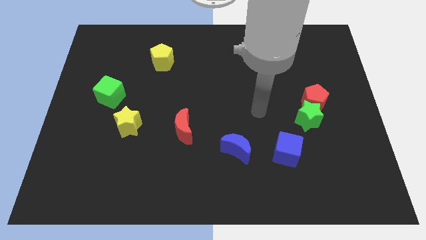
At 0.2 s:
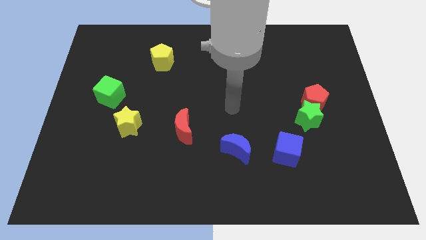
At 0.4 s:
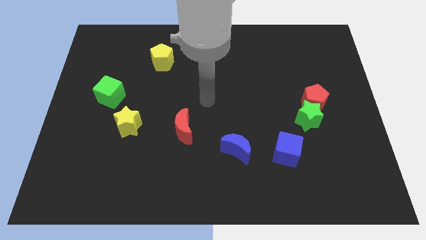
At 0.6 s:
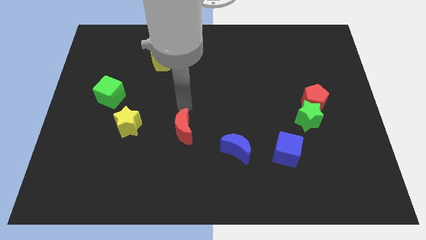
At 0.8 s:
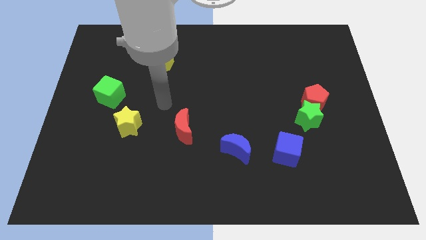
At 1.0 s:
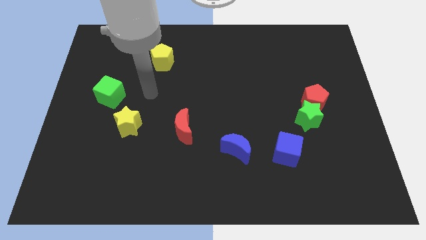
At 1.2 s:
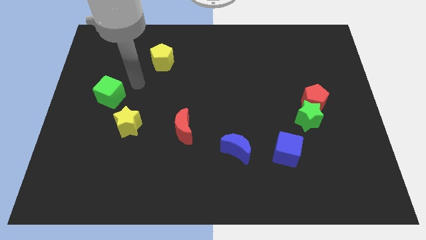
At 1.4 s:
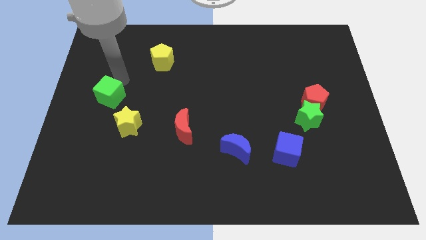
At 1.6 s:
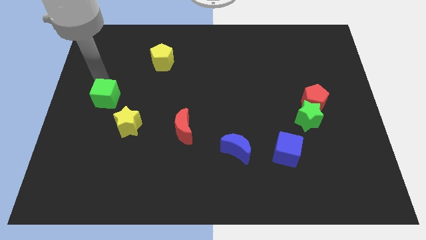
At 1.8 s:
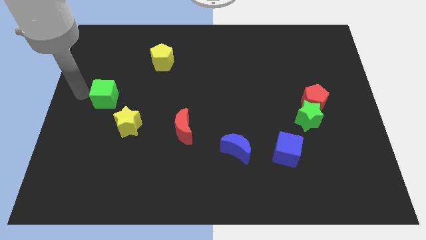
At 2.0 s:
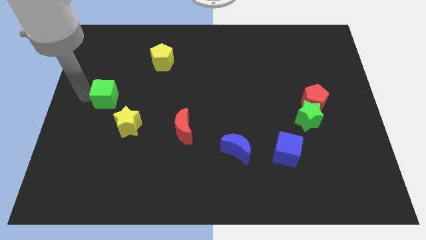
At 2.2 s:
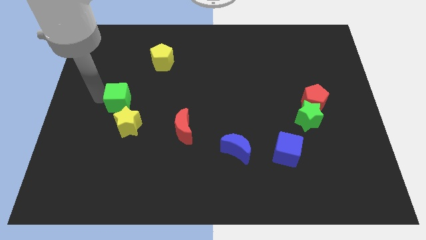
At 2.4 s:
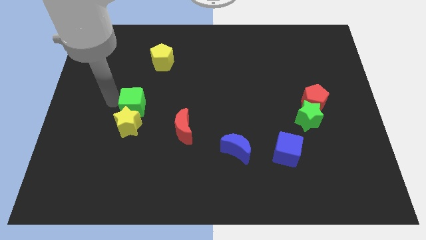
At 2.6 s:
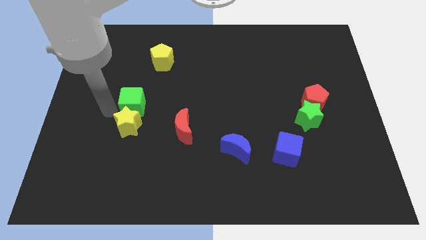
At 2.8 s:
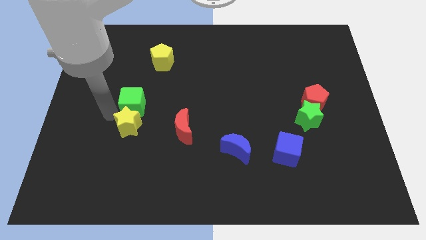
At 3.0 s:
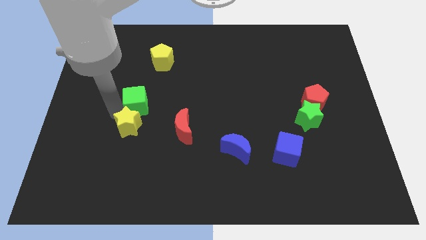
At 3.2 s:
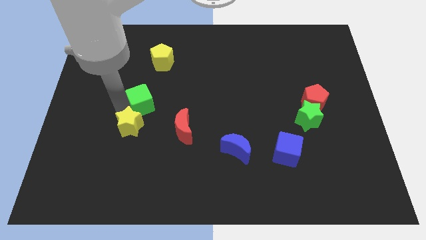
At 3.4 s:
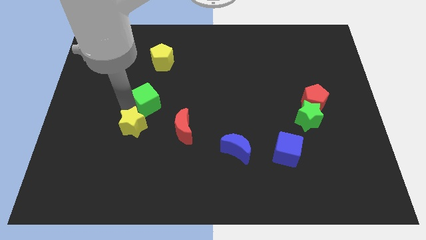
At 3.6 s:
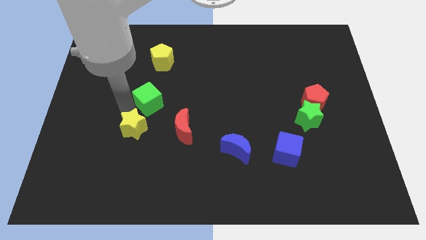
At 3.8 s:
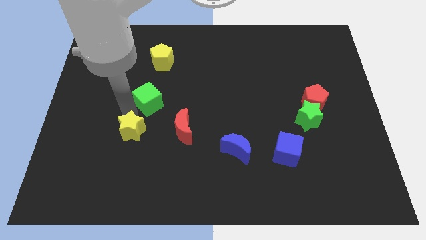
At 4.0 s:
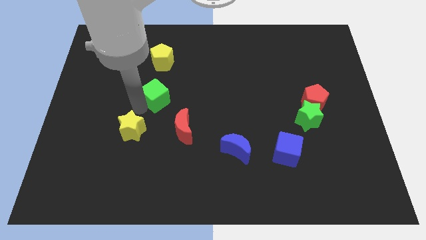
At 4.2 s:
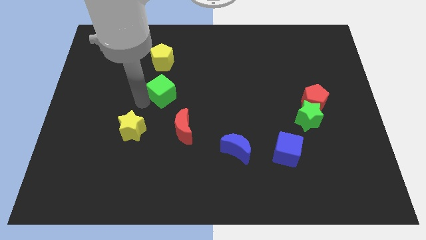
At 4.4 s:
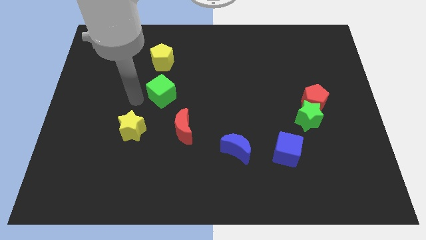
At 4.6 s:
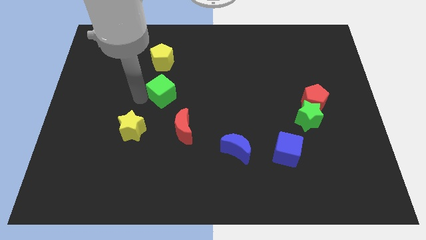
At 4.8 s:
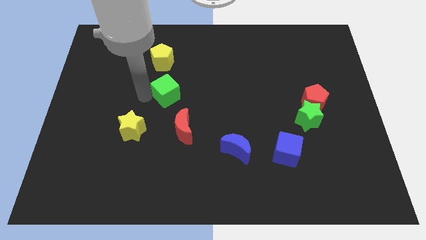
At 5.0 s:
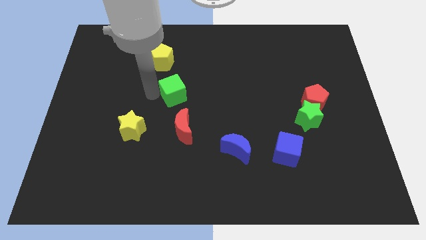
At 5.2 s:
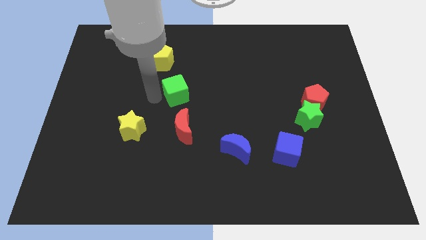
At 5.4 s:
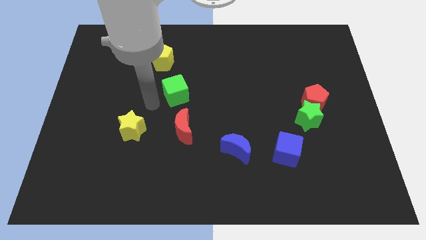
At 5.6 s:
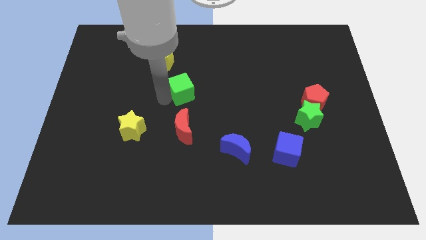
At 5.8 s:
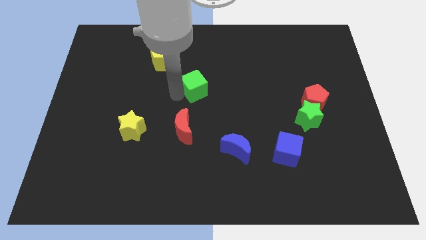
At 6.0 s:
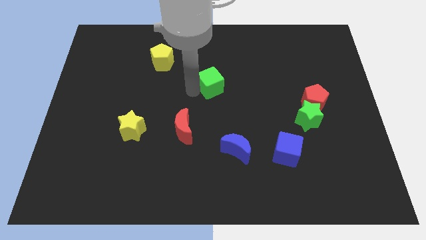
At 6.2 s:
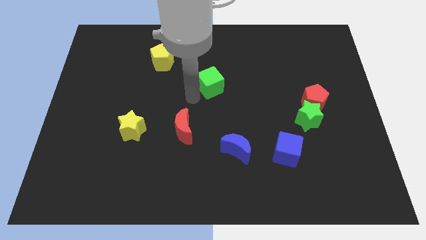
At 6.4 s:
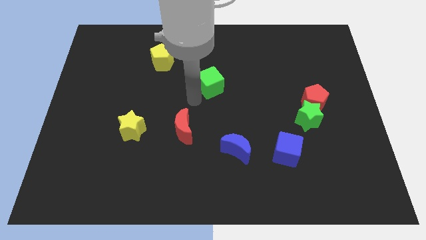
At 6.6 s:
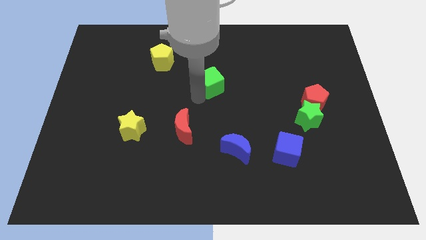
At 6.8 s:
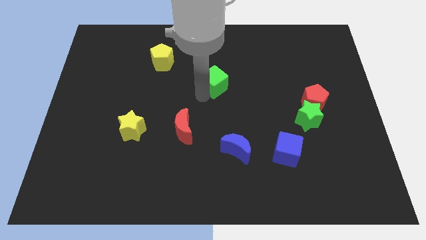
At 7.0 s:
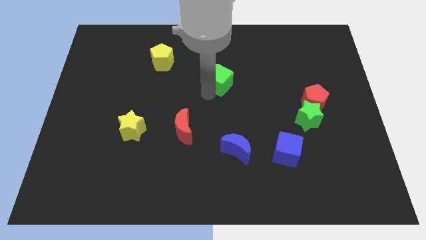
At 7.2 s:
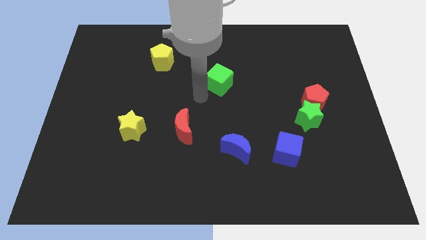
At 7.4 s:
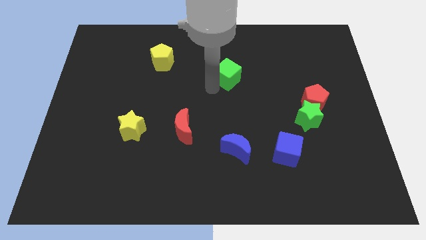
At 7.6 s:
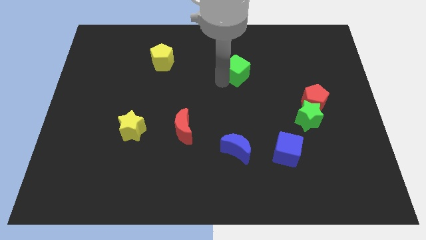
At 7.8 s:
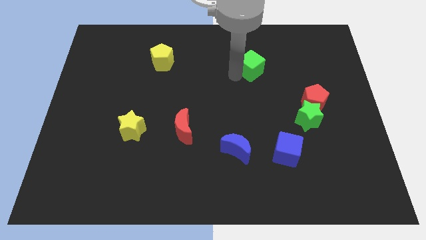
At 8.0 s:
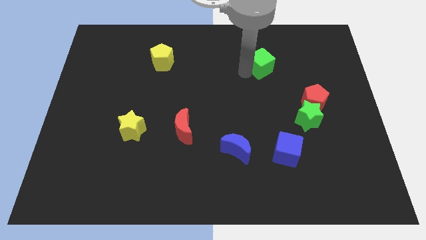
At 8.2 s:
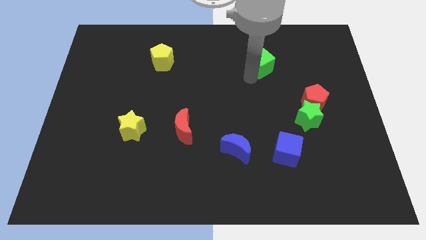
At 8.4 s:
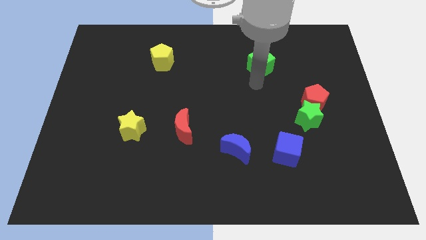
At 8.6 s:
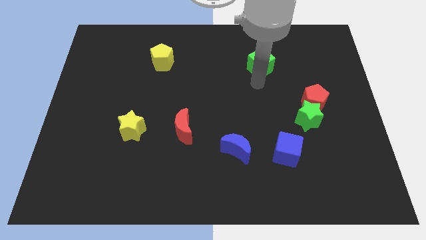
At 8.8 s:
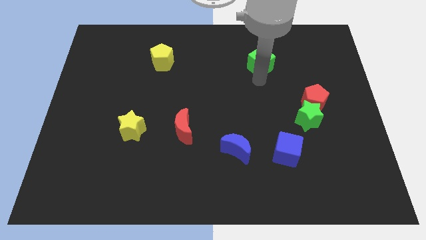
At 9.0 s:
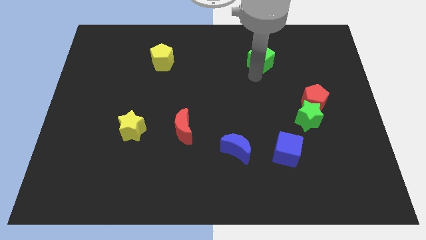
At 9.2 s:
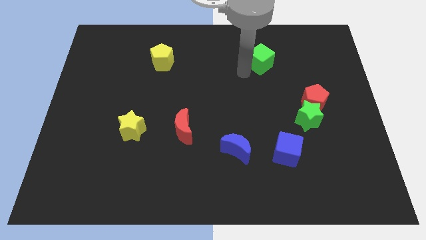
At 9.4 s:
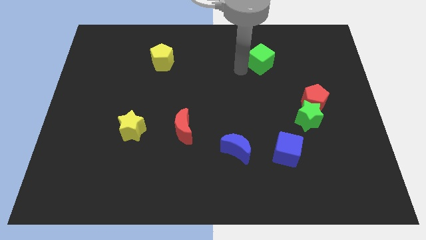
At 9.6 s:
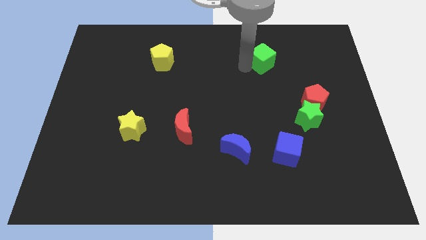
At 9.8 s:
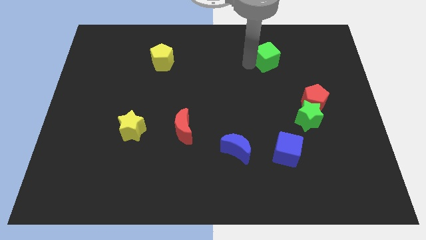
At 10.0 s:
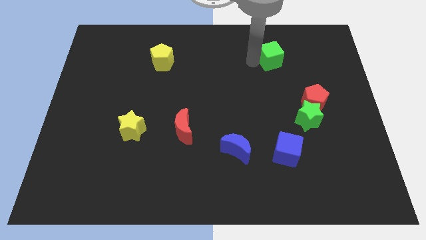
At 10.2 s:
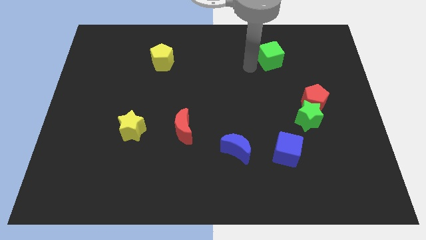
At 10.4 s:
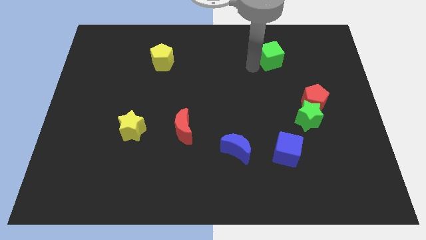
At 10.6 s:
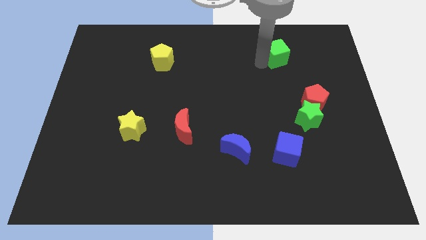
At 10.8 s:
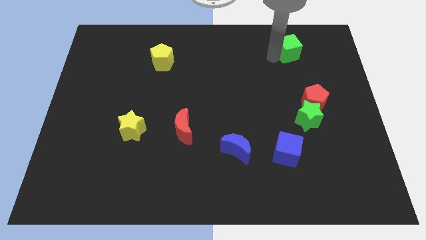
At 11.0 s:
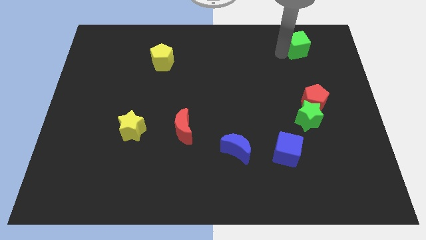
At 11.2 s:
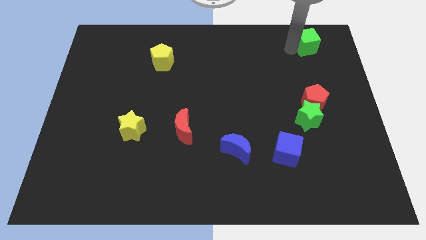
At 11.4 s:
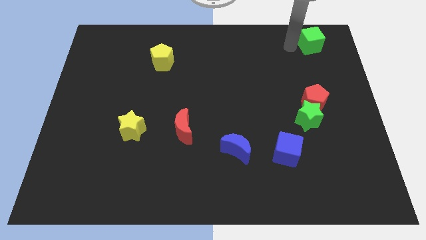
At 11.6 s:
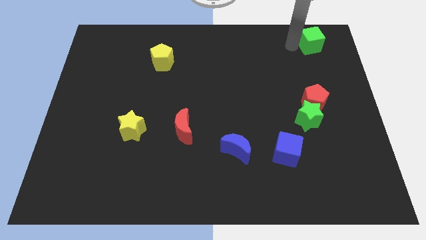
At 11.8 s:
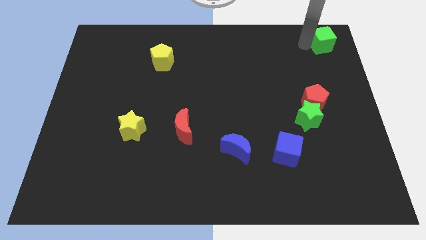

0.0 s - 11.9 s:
put the green cube to the upper right corner

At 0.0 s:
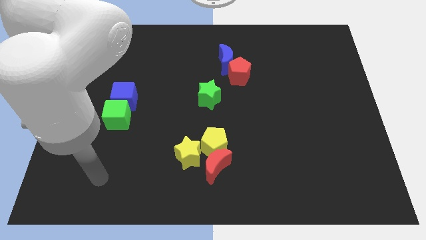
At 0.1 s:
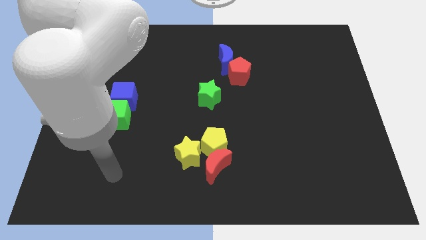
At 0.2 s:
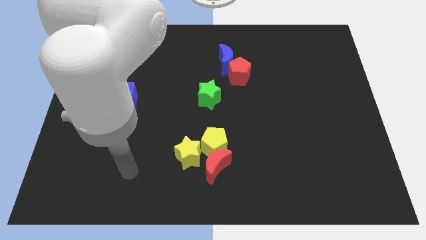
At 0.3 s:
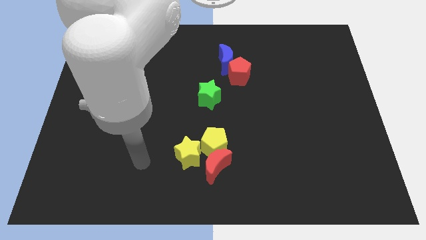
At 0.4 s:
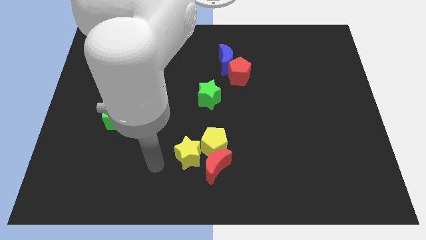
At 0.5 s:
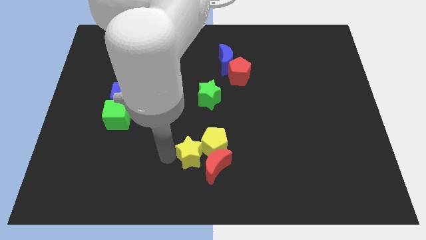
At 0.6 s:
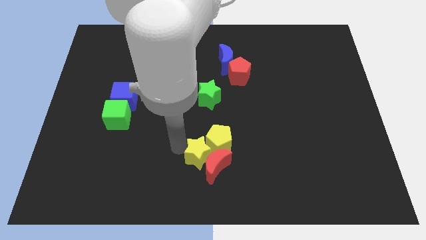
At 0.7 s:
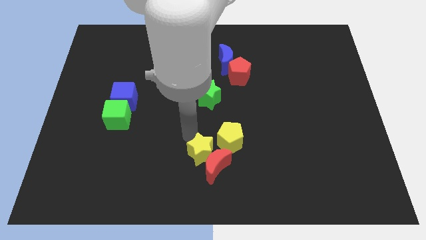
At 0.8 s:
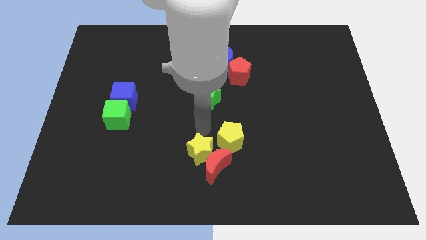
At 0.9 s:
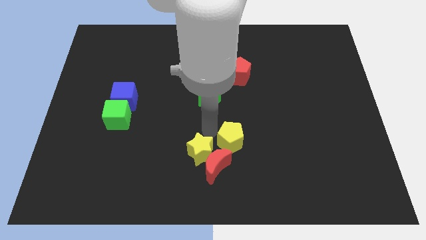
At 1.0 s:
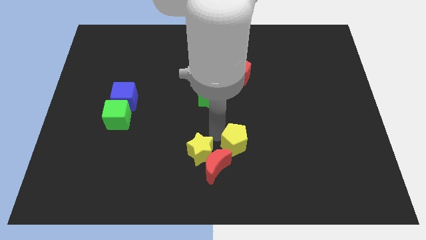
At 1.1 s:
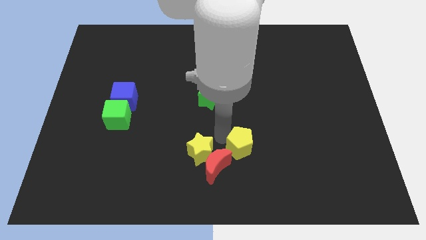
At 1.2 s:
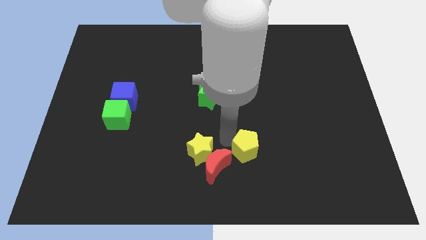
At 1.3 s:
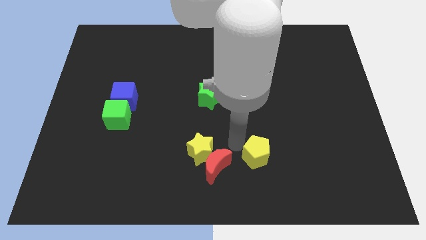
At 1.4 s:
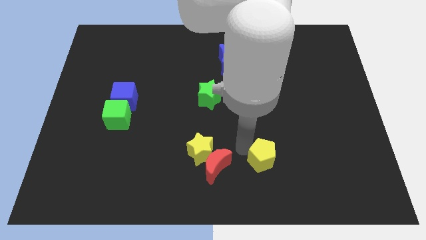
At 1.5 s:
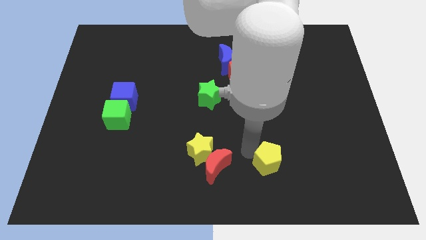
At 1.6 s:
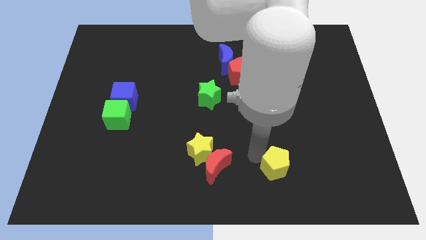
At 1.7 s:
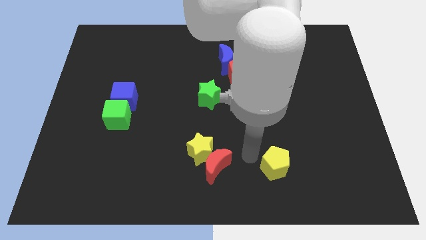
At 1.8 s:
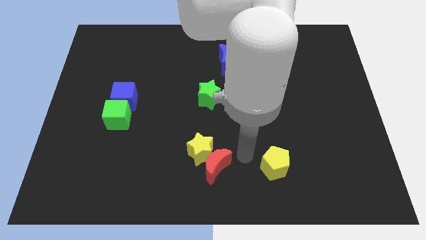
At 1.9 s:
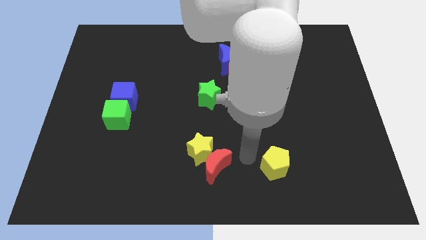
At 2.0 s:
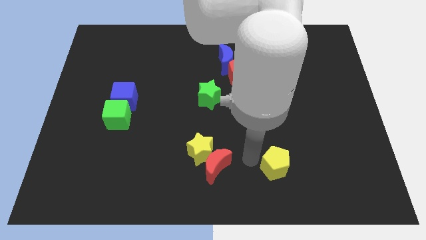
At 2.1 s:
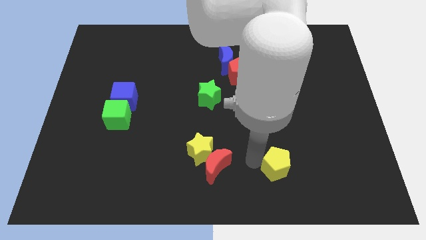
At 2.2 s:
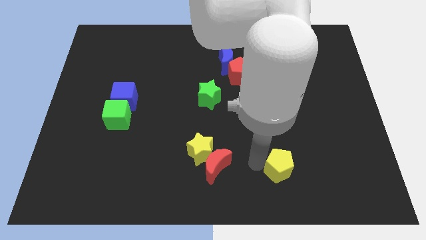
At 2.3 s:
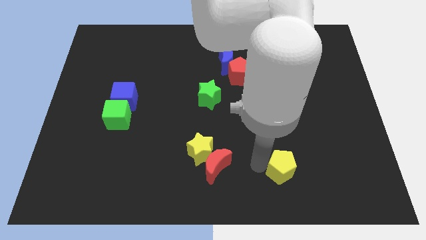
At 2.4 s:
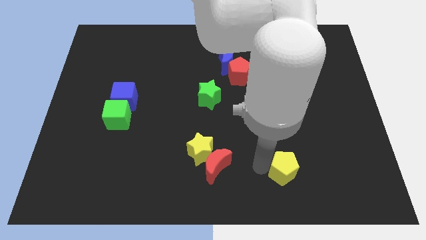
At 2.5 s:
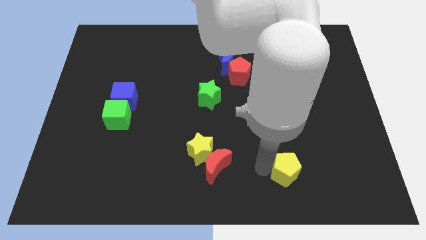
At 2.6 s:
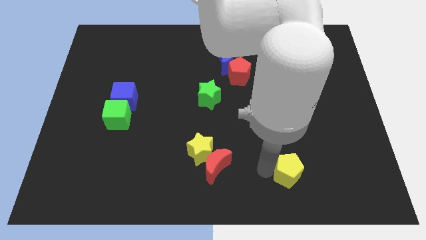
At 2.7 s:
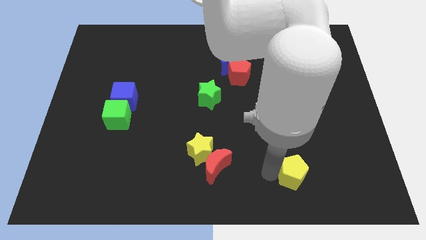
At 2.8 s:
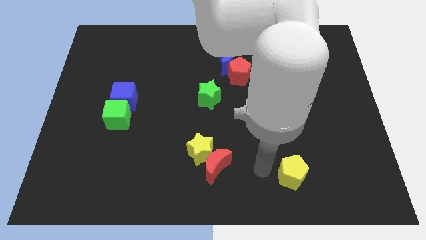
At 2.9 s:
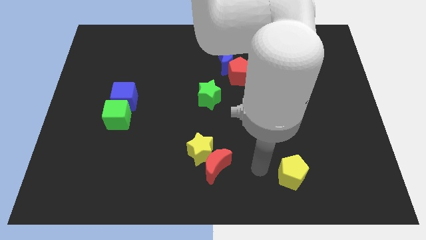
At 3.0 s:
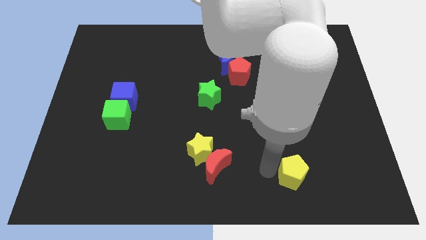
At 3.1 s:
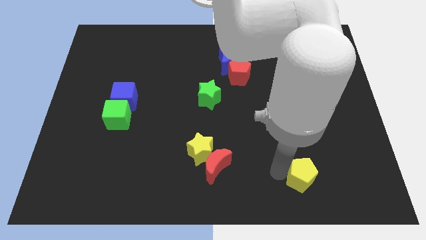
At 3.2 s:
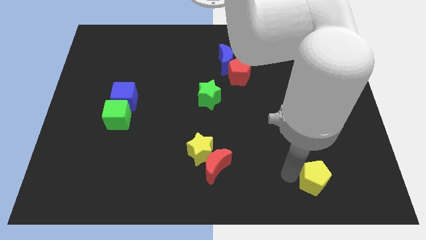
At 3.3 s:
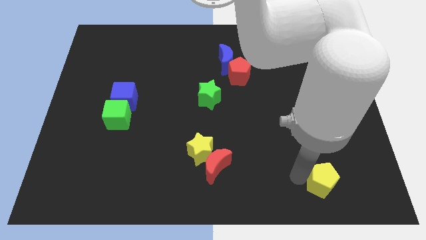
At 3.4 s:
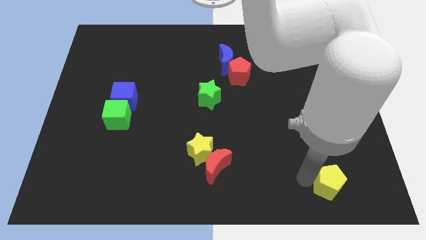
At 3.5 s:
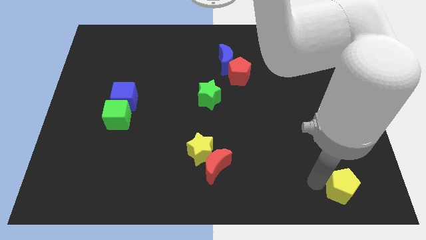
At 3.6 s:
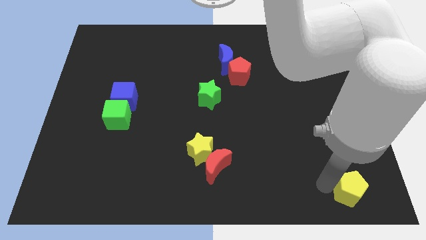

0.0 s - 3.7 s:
put the yellow pentagon to the lower right corner
